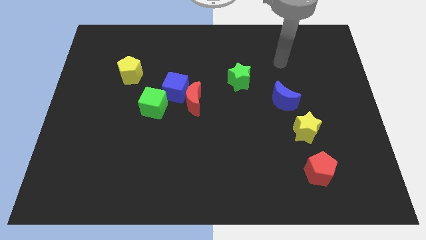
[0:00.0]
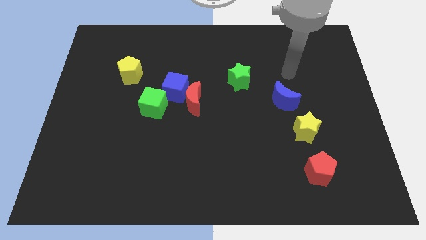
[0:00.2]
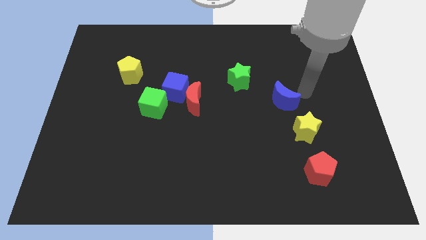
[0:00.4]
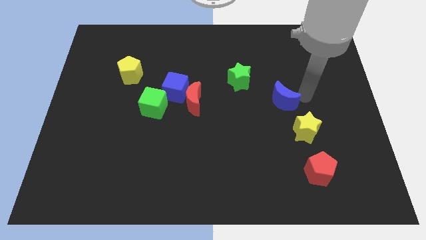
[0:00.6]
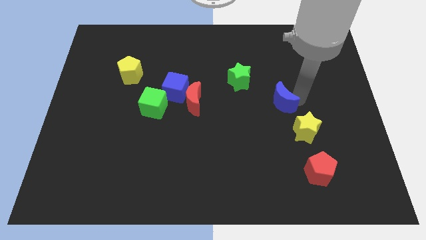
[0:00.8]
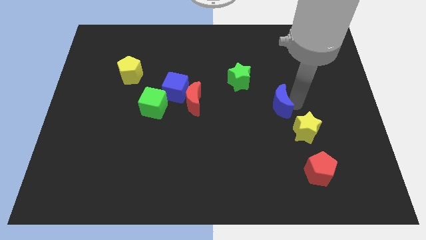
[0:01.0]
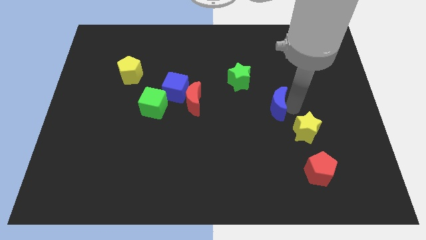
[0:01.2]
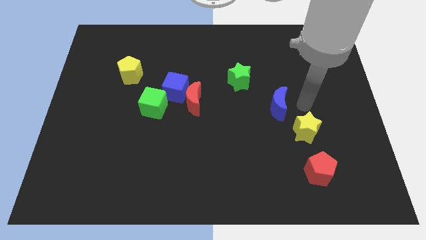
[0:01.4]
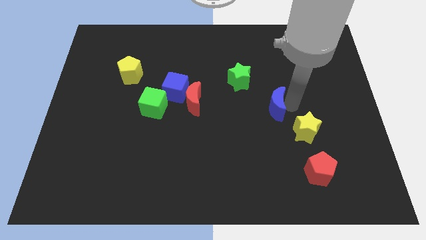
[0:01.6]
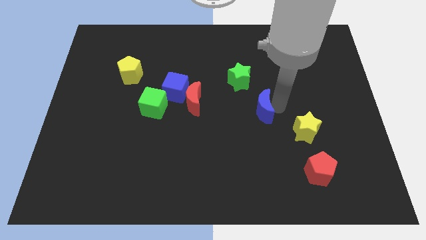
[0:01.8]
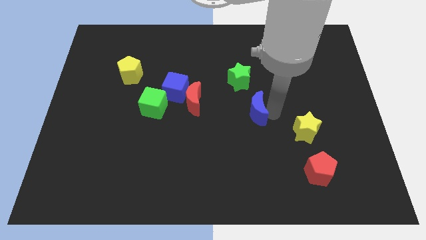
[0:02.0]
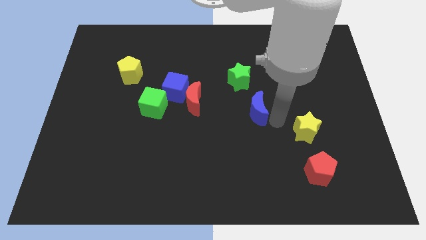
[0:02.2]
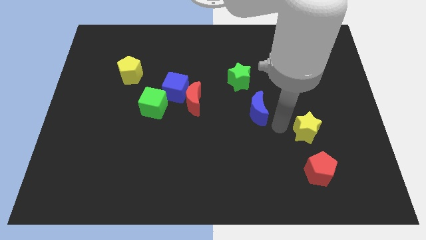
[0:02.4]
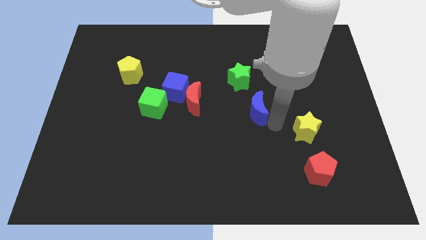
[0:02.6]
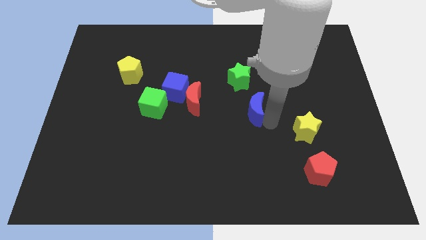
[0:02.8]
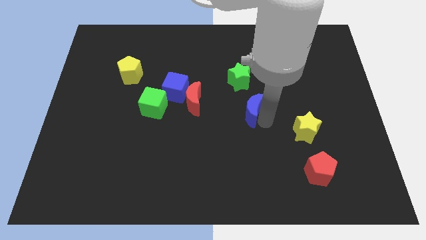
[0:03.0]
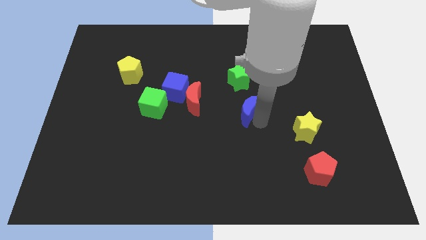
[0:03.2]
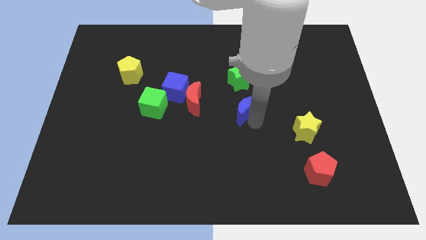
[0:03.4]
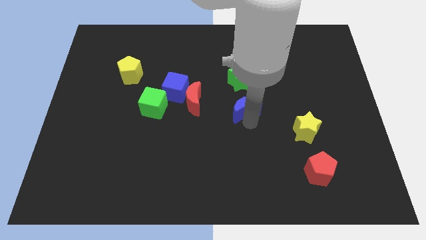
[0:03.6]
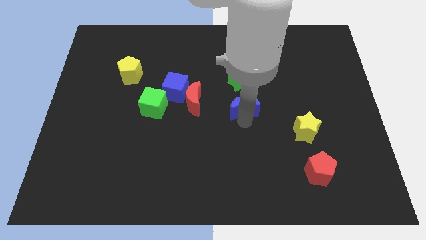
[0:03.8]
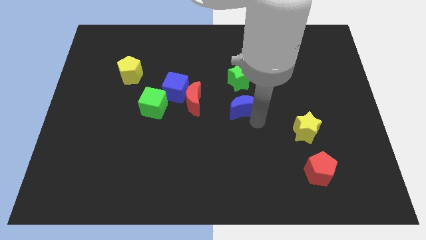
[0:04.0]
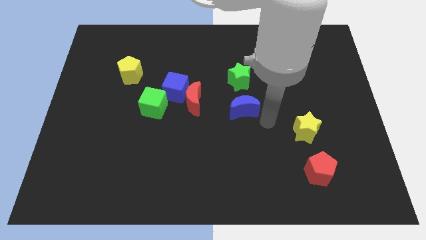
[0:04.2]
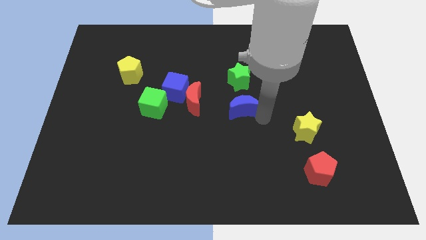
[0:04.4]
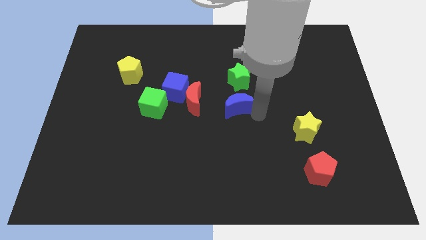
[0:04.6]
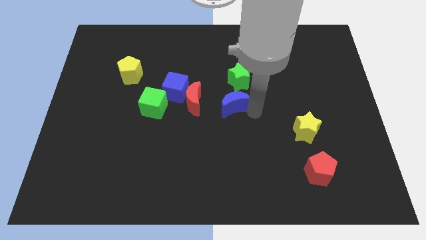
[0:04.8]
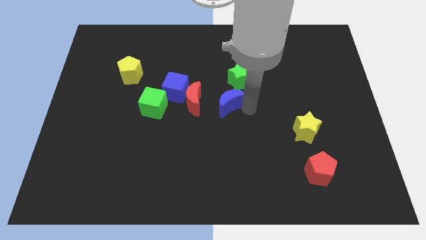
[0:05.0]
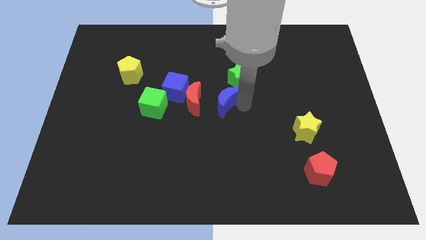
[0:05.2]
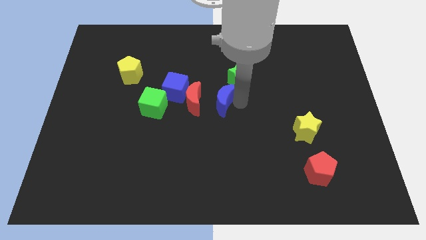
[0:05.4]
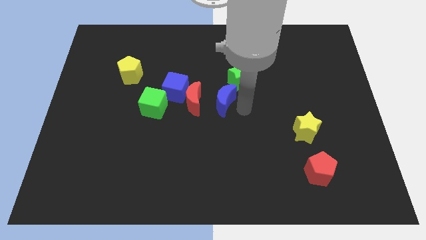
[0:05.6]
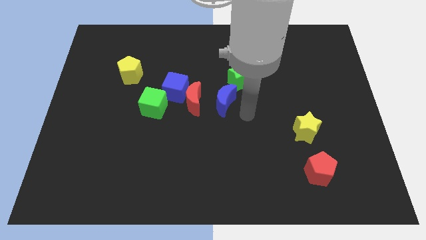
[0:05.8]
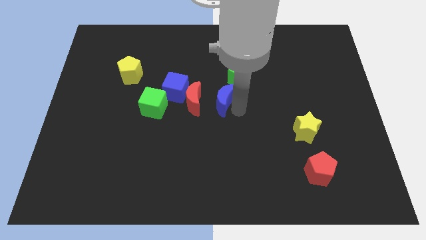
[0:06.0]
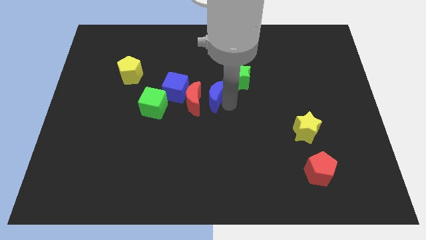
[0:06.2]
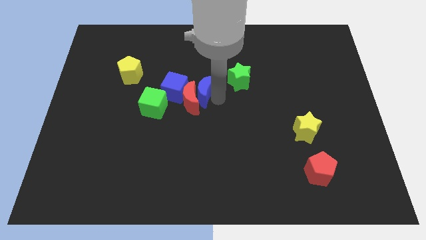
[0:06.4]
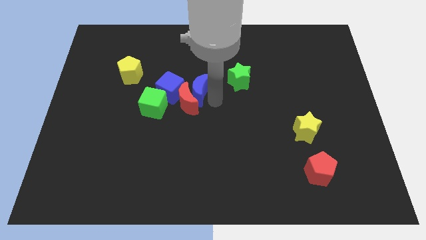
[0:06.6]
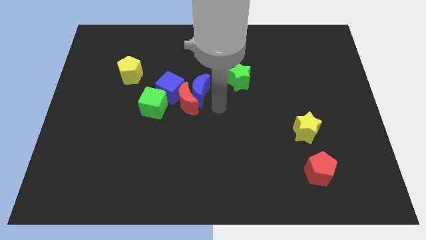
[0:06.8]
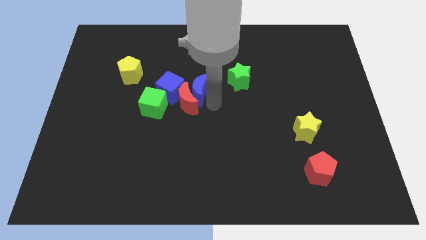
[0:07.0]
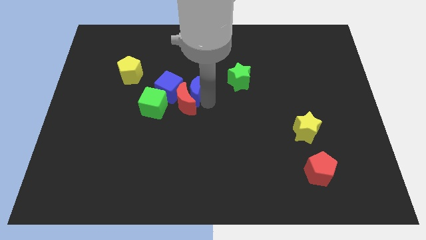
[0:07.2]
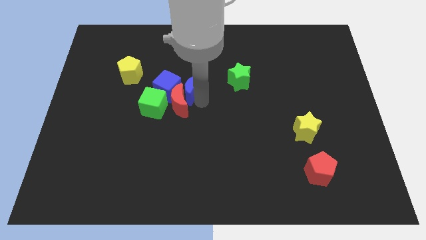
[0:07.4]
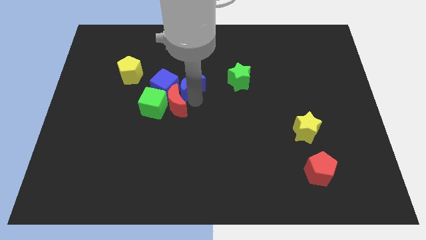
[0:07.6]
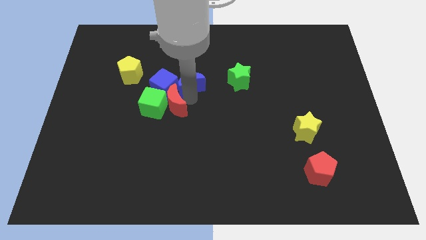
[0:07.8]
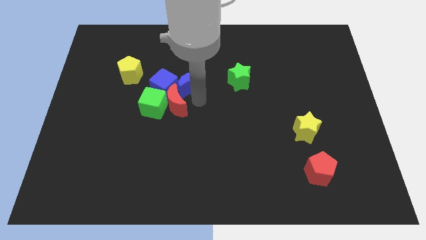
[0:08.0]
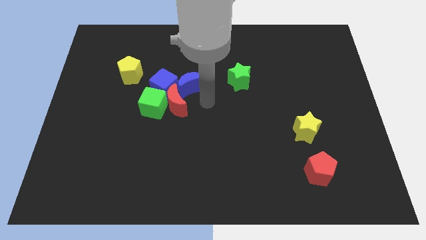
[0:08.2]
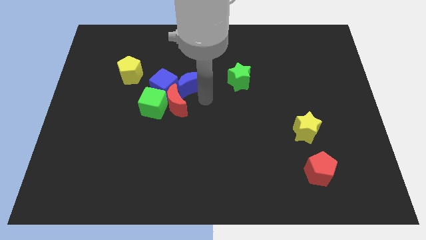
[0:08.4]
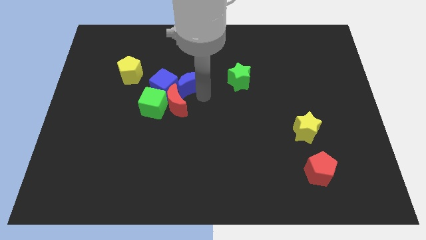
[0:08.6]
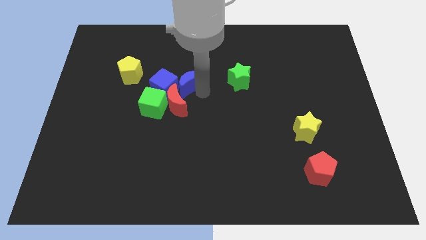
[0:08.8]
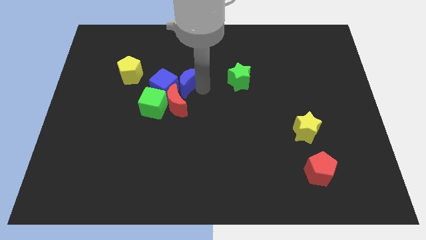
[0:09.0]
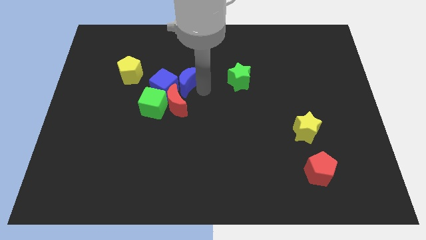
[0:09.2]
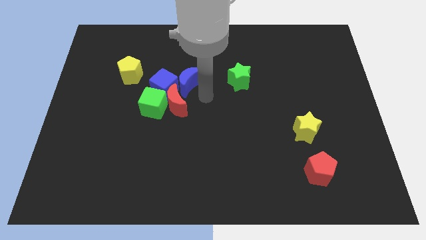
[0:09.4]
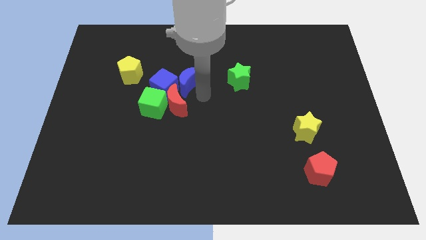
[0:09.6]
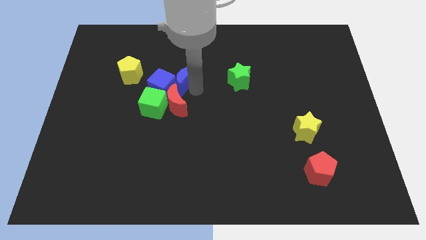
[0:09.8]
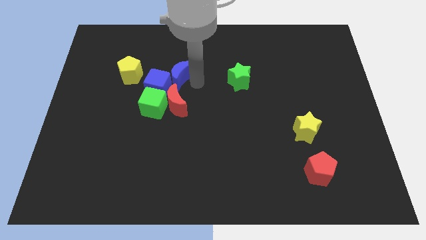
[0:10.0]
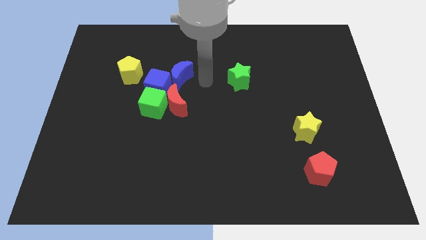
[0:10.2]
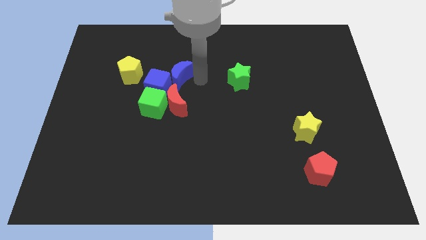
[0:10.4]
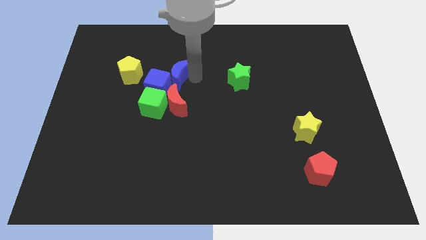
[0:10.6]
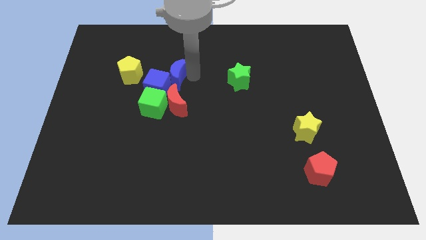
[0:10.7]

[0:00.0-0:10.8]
put the blue moon to the top of the green cube

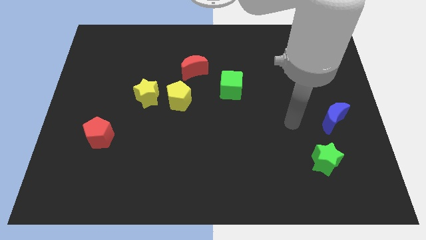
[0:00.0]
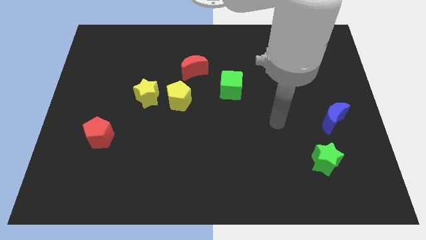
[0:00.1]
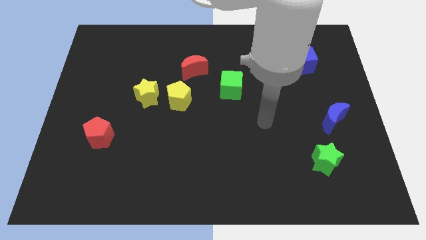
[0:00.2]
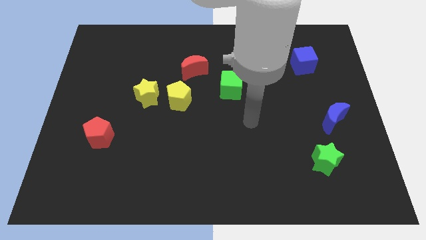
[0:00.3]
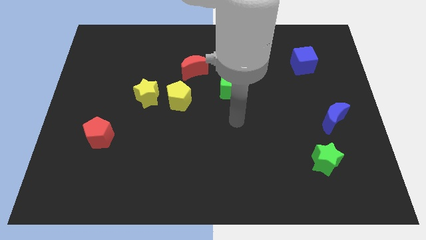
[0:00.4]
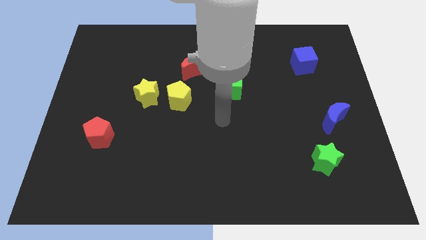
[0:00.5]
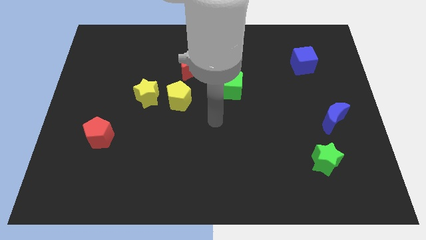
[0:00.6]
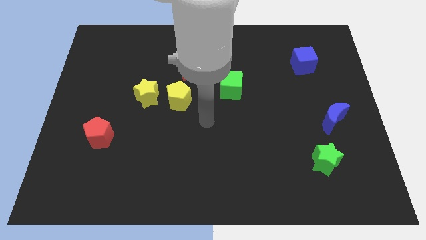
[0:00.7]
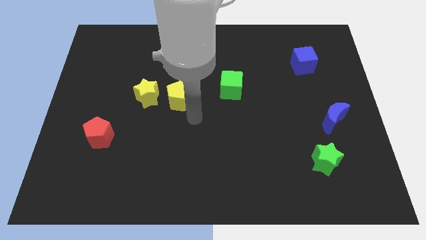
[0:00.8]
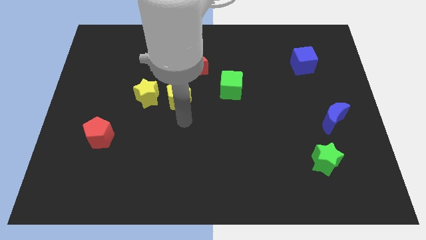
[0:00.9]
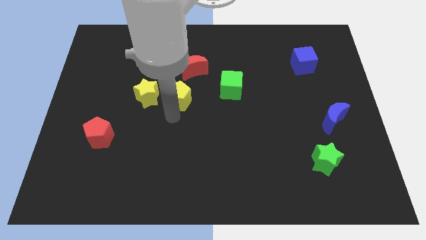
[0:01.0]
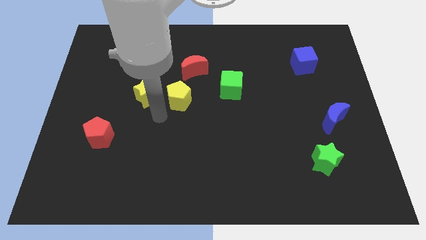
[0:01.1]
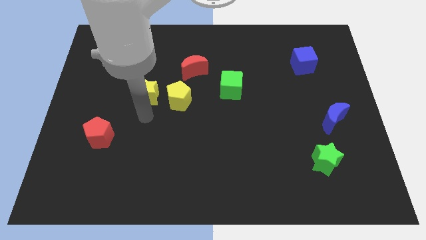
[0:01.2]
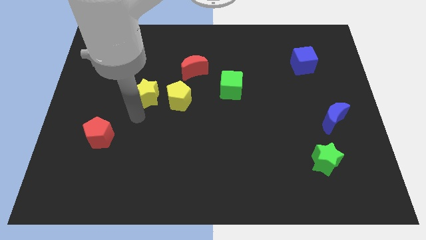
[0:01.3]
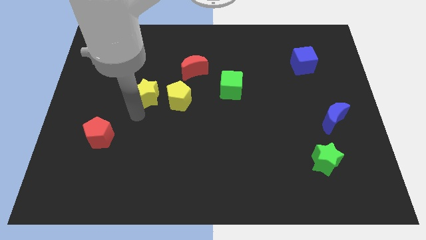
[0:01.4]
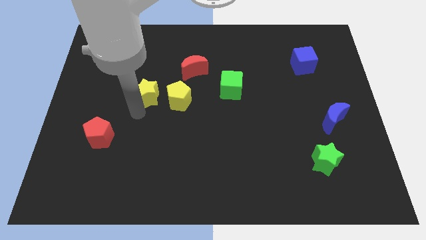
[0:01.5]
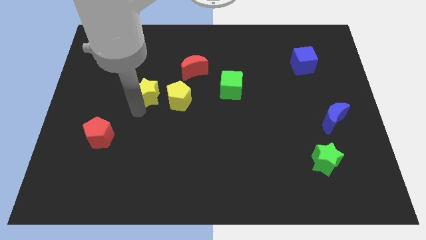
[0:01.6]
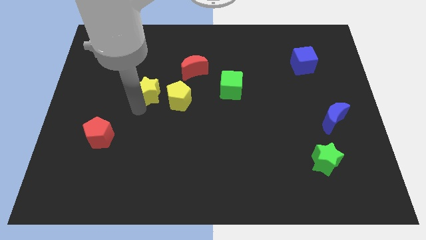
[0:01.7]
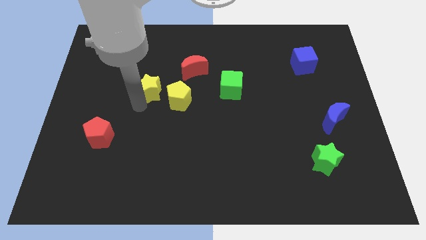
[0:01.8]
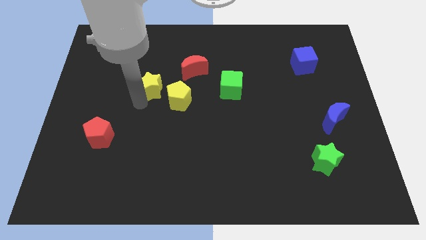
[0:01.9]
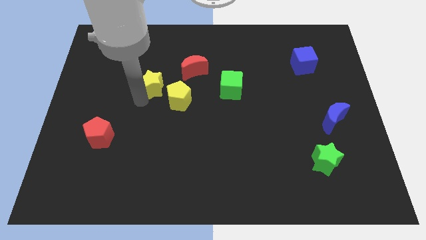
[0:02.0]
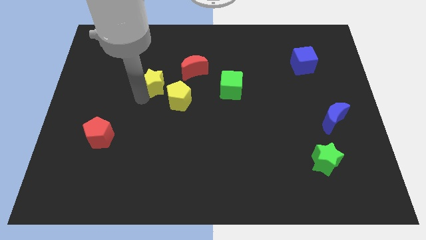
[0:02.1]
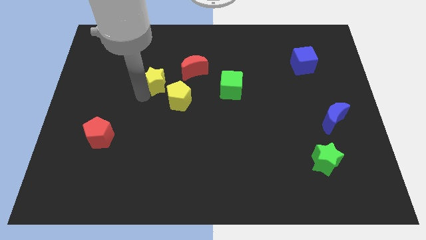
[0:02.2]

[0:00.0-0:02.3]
slide the yellow star to the left of the red moon
